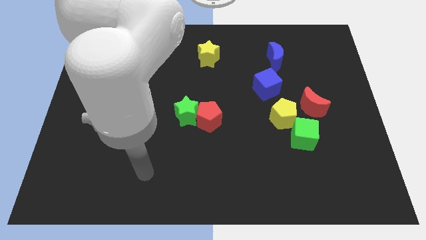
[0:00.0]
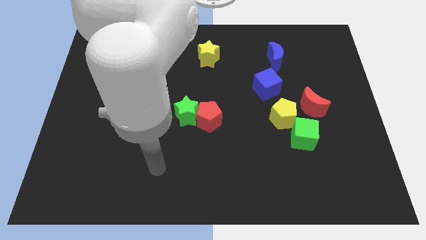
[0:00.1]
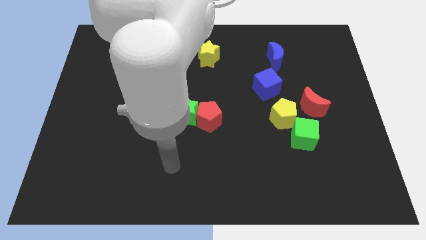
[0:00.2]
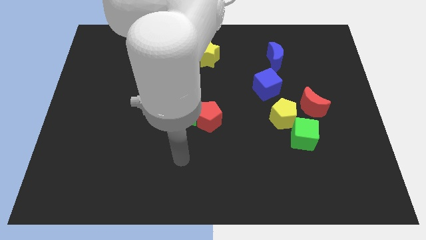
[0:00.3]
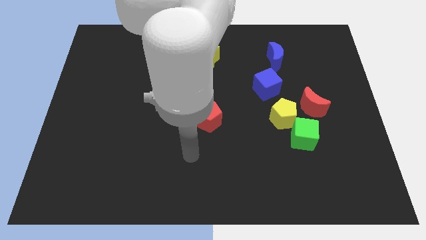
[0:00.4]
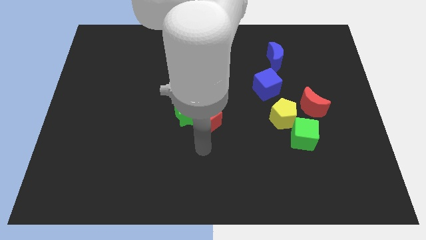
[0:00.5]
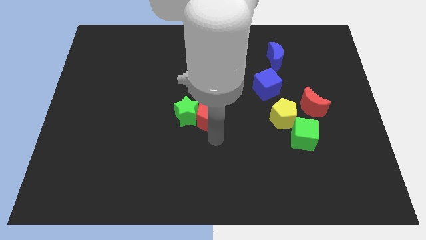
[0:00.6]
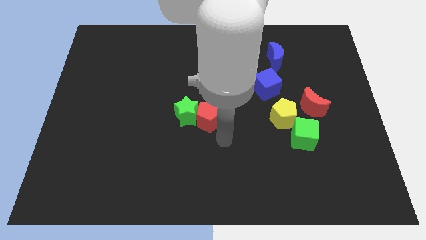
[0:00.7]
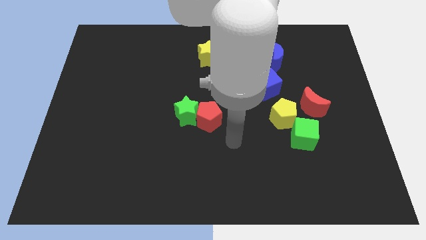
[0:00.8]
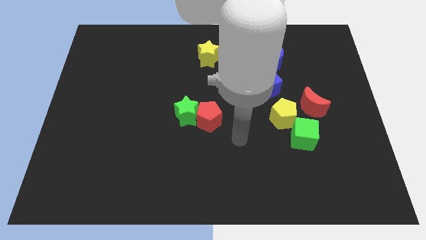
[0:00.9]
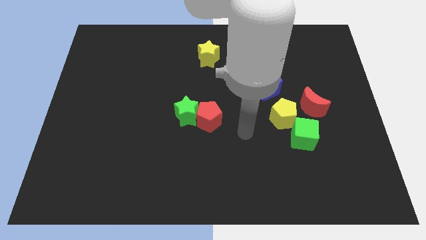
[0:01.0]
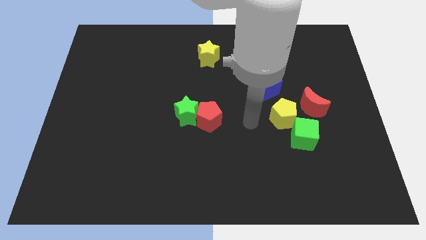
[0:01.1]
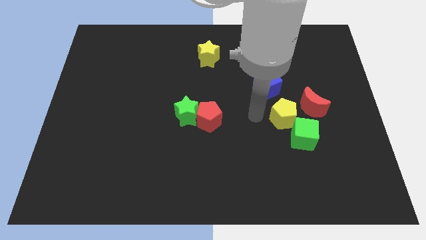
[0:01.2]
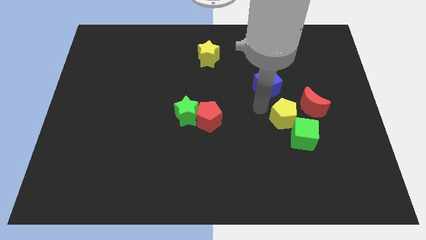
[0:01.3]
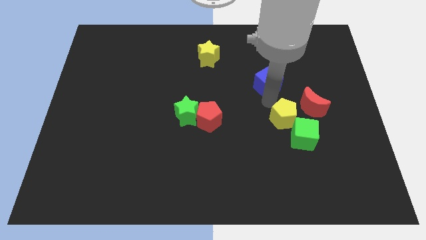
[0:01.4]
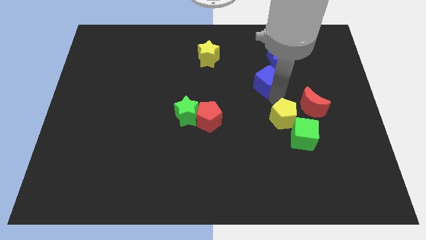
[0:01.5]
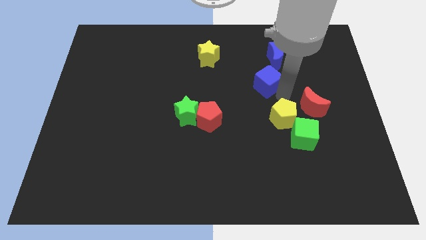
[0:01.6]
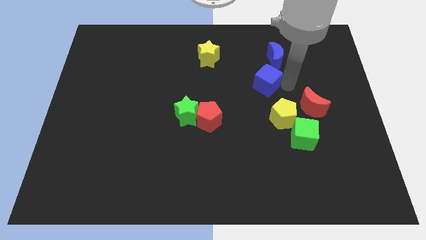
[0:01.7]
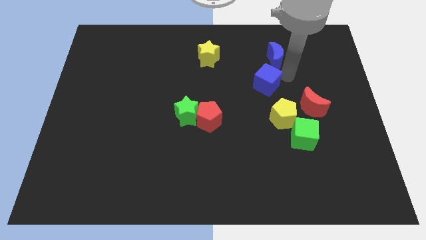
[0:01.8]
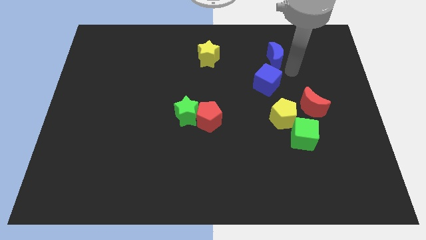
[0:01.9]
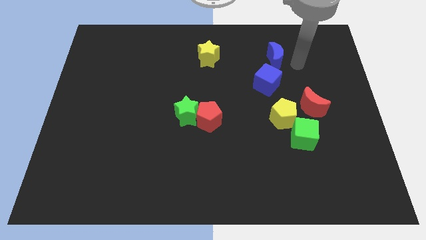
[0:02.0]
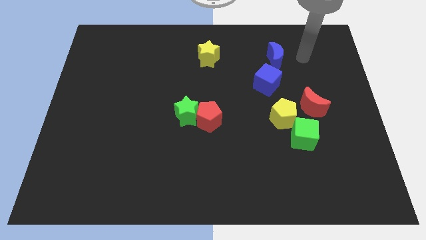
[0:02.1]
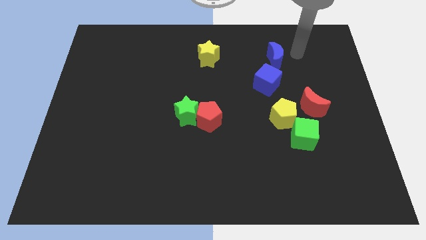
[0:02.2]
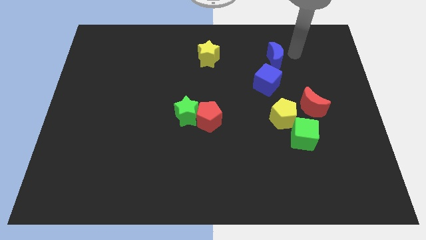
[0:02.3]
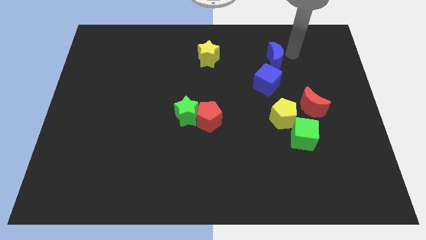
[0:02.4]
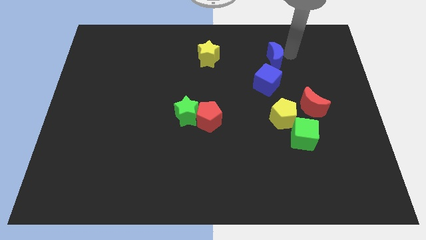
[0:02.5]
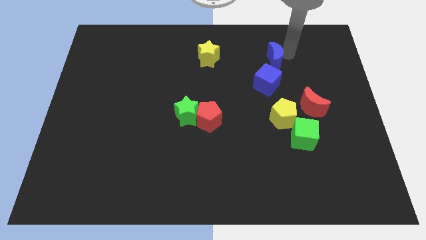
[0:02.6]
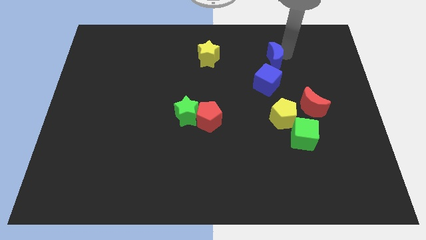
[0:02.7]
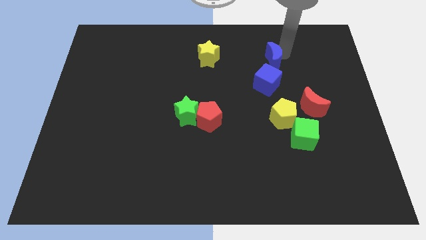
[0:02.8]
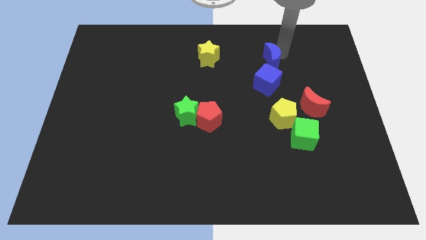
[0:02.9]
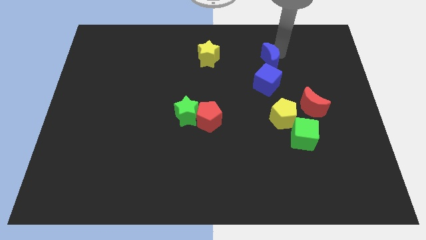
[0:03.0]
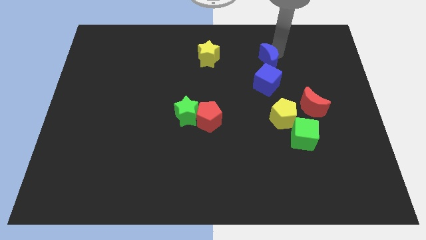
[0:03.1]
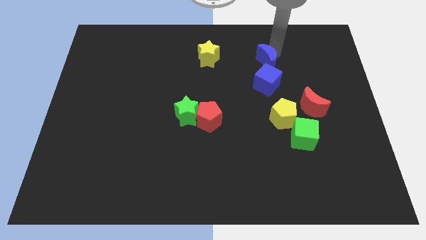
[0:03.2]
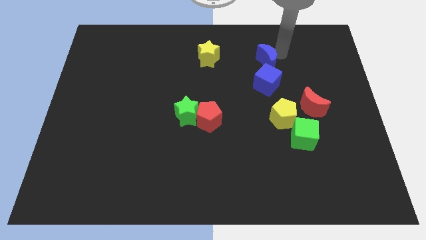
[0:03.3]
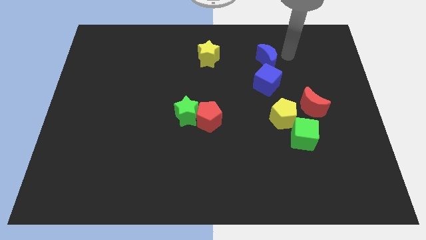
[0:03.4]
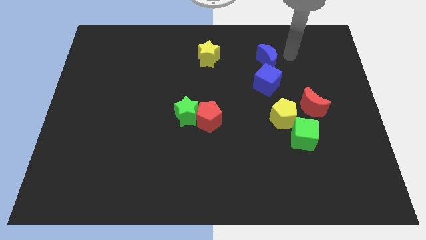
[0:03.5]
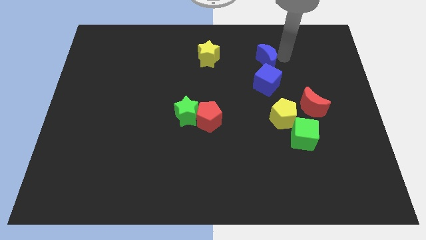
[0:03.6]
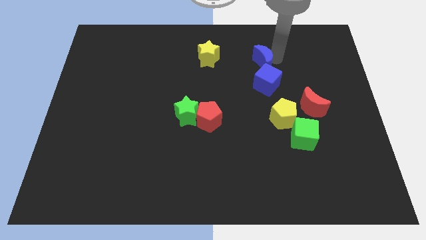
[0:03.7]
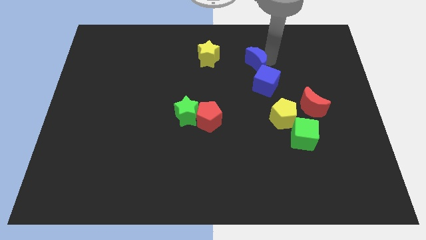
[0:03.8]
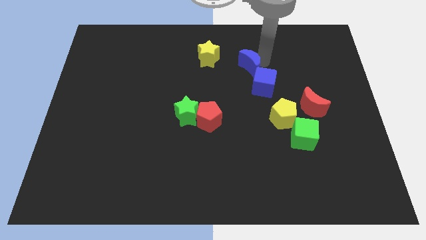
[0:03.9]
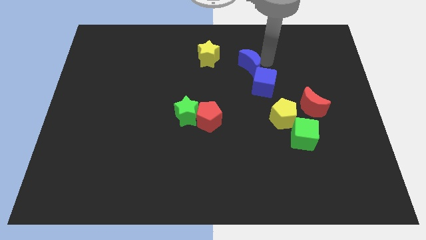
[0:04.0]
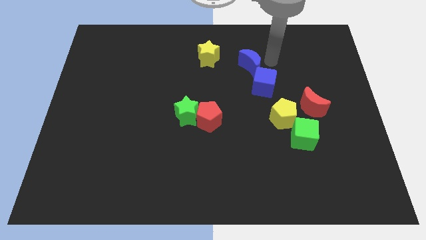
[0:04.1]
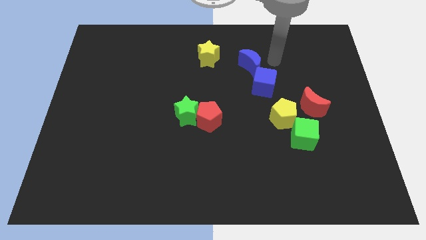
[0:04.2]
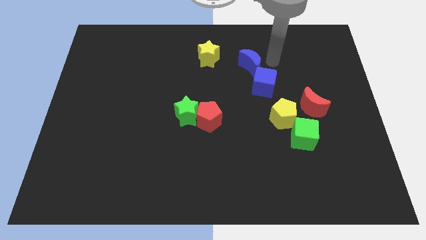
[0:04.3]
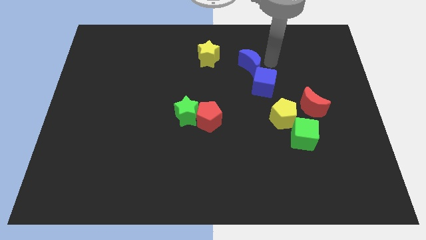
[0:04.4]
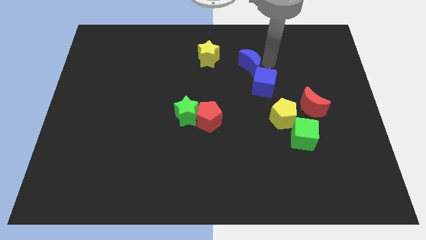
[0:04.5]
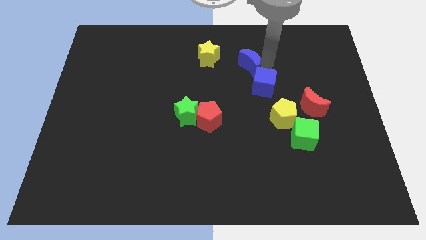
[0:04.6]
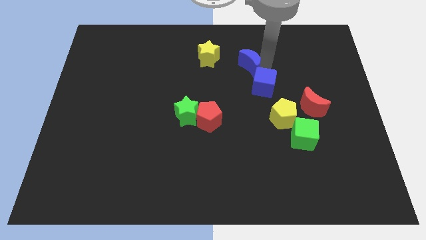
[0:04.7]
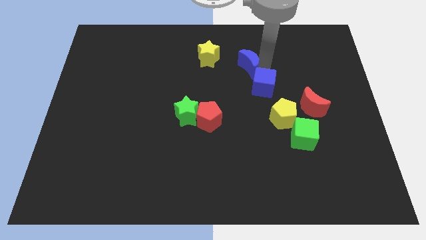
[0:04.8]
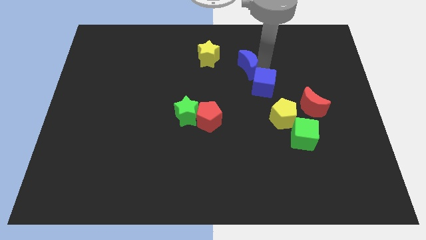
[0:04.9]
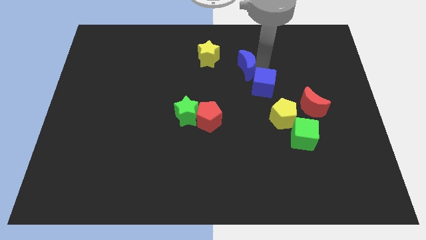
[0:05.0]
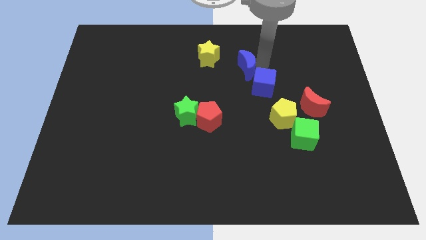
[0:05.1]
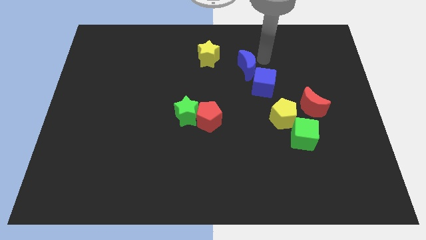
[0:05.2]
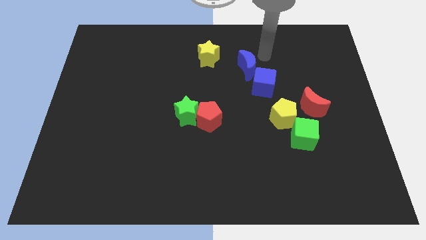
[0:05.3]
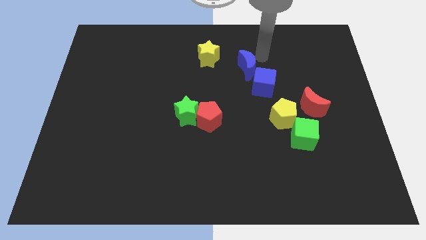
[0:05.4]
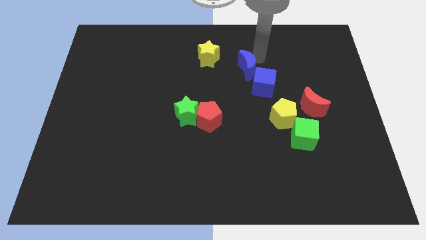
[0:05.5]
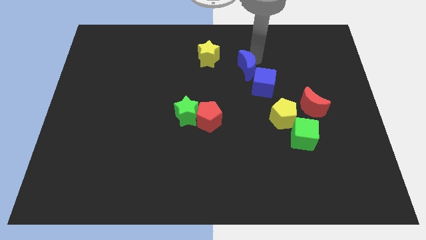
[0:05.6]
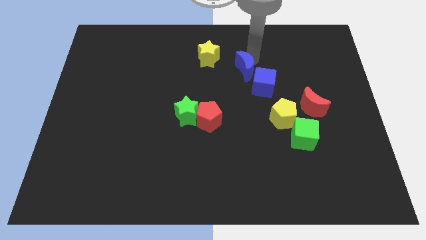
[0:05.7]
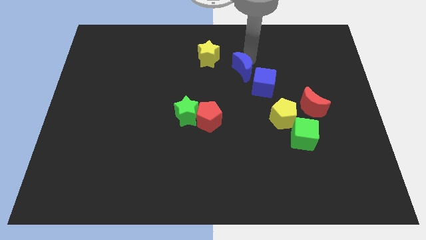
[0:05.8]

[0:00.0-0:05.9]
move the blue moon to the middle of the board
